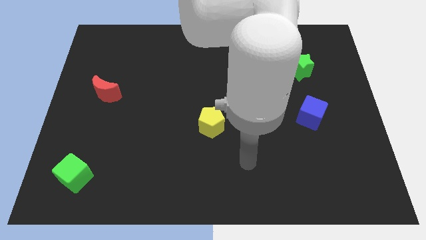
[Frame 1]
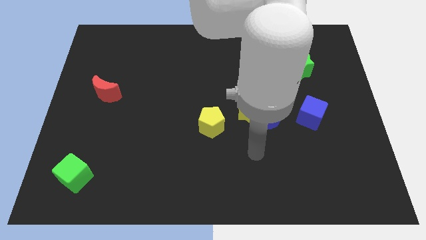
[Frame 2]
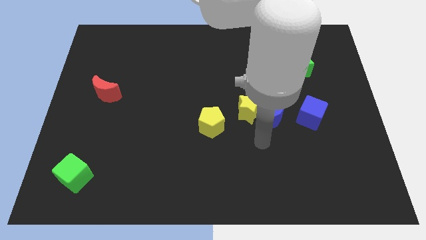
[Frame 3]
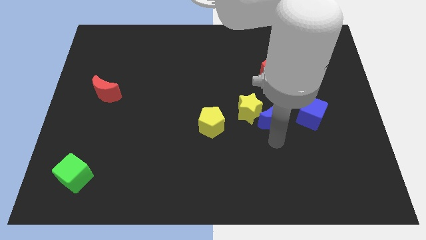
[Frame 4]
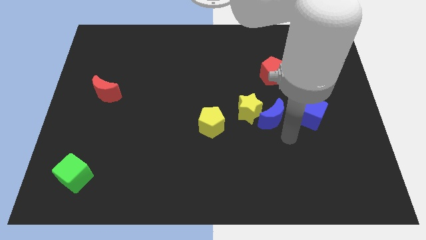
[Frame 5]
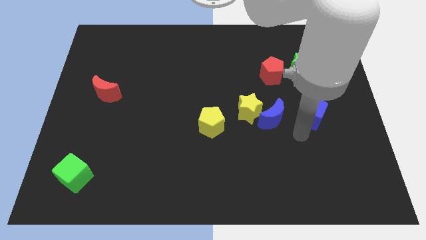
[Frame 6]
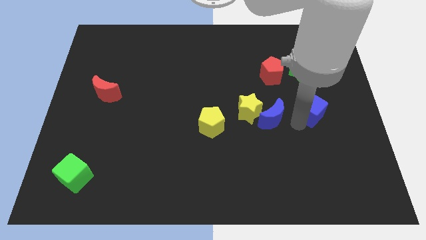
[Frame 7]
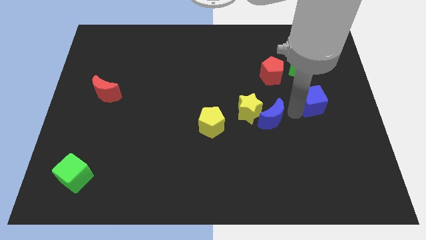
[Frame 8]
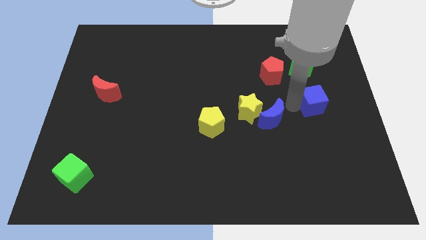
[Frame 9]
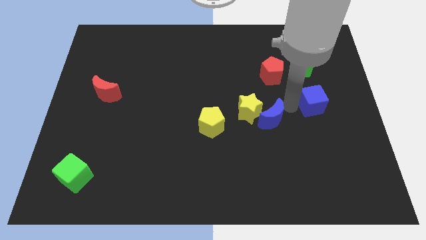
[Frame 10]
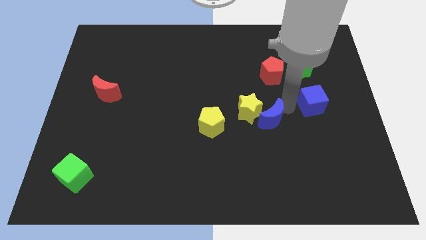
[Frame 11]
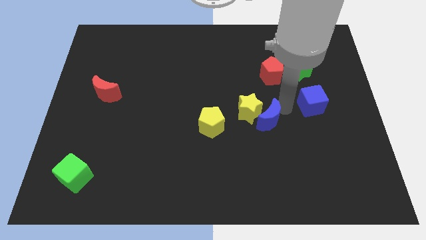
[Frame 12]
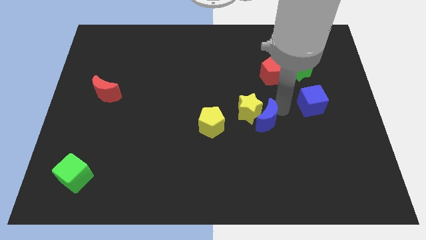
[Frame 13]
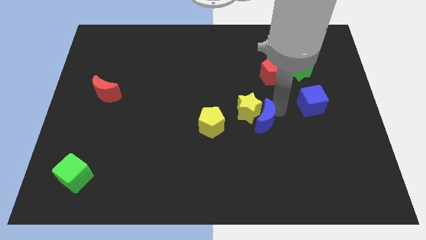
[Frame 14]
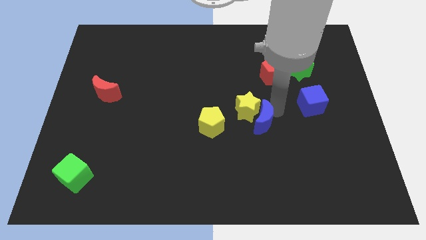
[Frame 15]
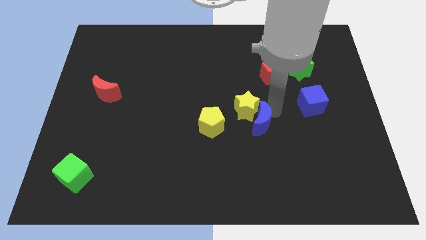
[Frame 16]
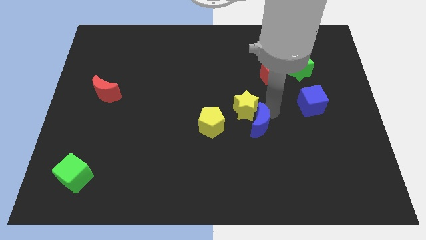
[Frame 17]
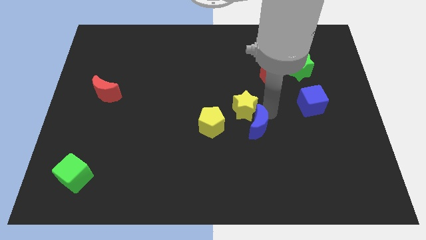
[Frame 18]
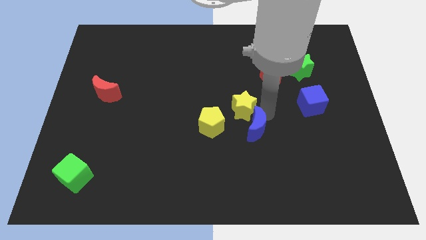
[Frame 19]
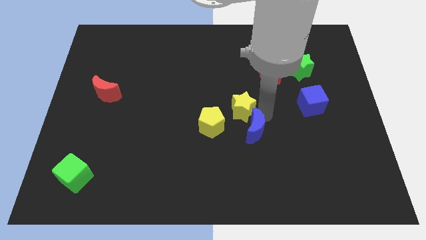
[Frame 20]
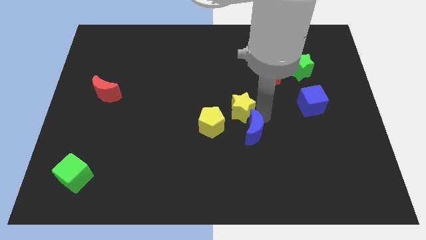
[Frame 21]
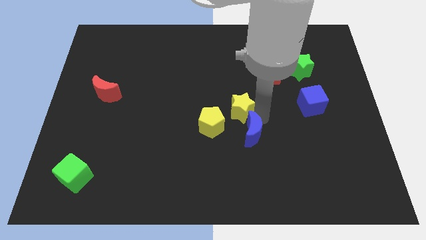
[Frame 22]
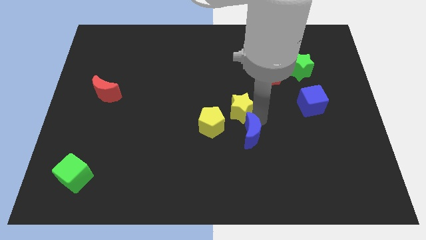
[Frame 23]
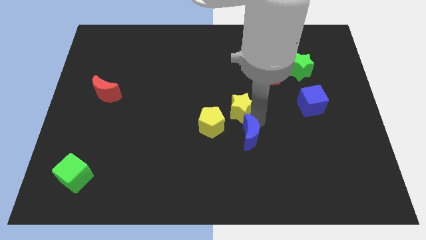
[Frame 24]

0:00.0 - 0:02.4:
separate the blue moon from the yellow star and blue cube

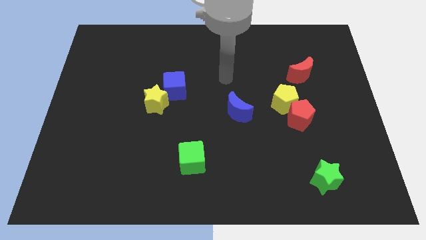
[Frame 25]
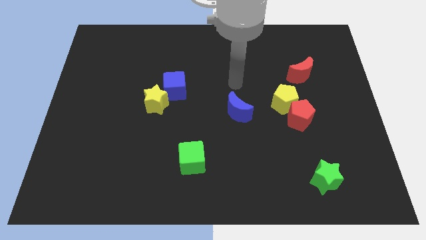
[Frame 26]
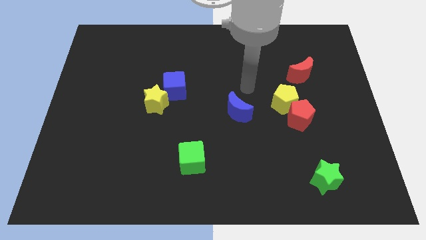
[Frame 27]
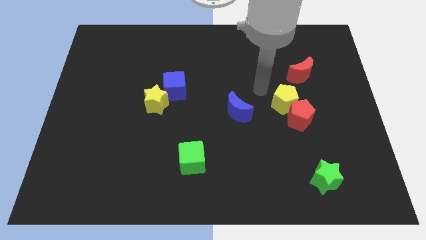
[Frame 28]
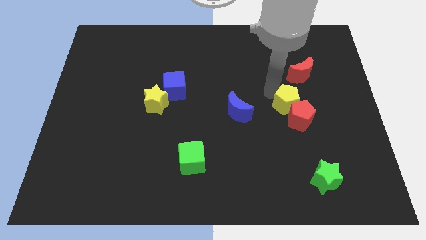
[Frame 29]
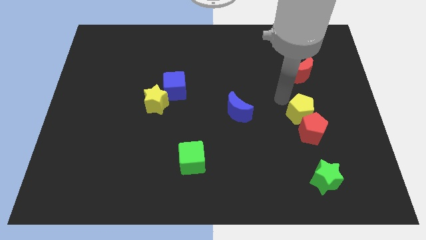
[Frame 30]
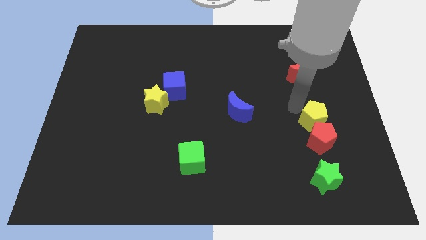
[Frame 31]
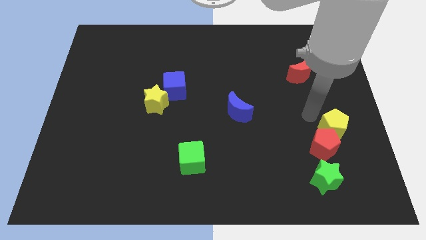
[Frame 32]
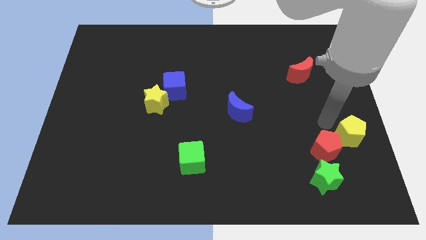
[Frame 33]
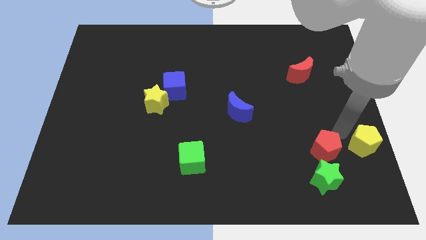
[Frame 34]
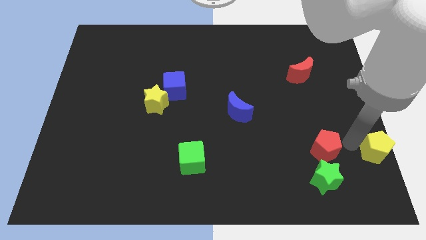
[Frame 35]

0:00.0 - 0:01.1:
move the red pentagon away from the yellow pentagon

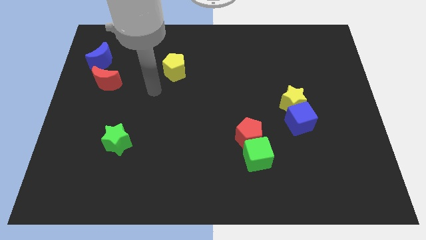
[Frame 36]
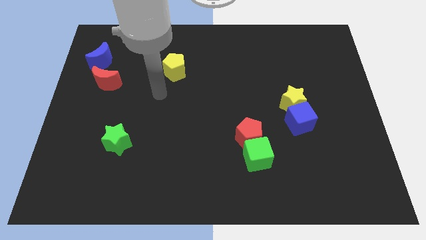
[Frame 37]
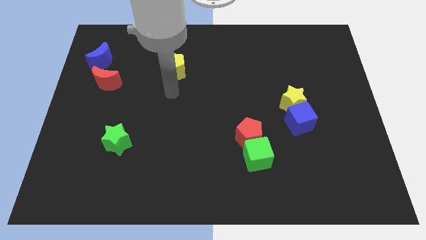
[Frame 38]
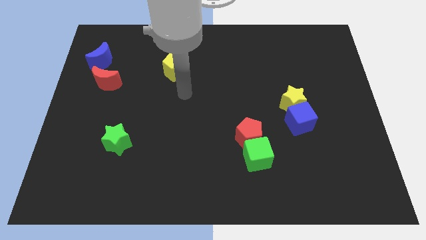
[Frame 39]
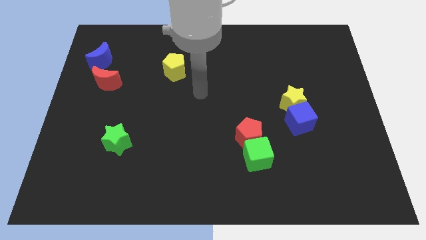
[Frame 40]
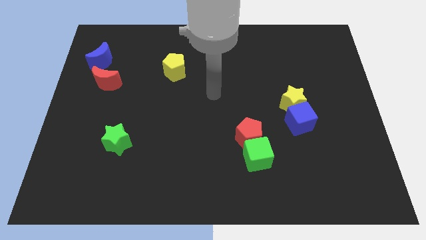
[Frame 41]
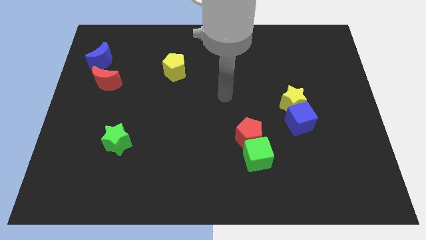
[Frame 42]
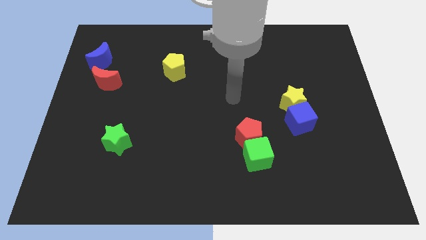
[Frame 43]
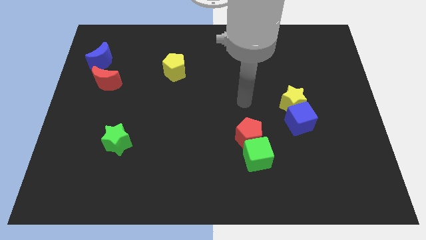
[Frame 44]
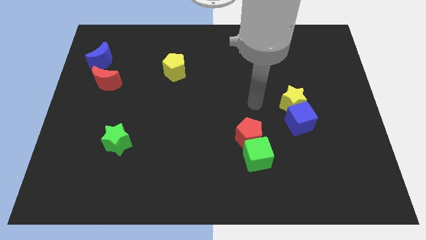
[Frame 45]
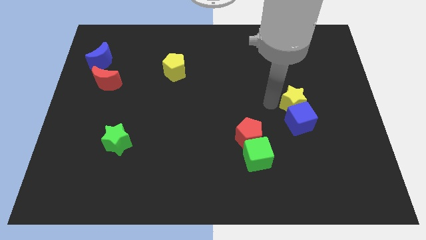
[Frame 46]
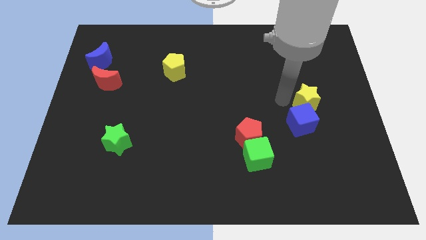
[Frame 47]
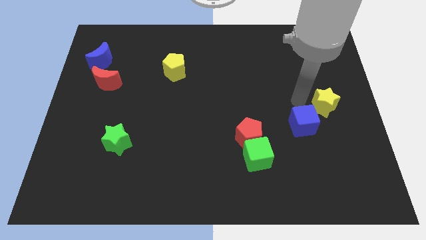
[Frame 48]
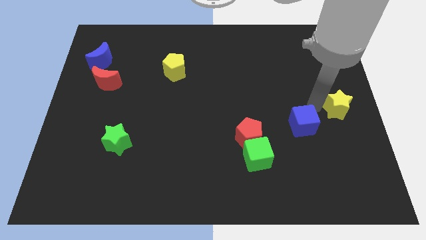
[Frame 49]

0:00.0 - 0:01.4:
separate the blue cube from the yellow star

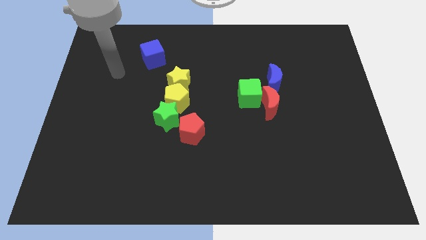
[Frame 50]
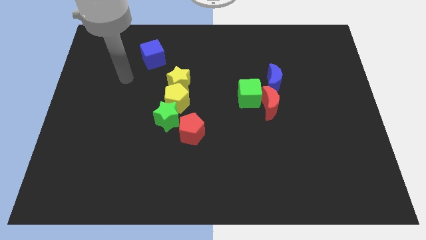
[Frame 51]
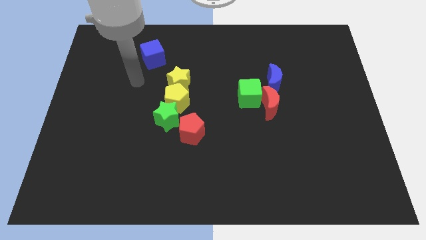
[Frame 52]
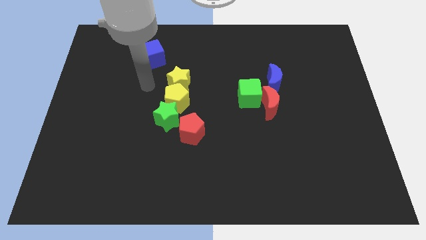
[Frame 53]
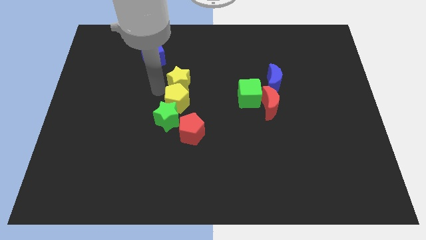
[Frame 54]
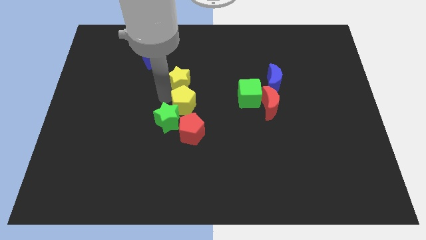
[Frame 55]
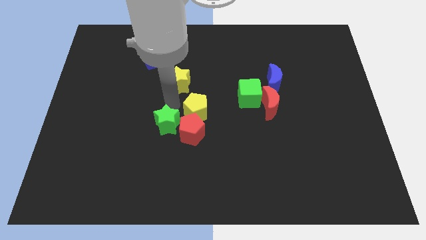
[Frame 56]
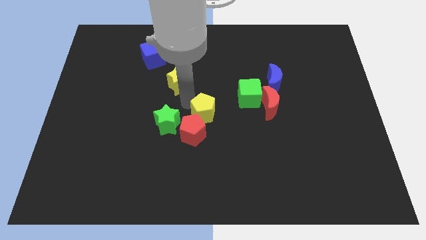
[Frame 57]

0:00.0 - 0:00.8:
move the yellow star away from the yellow pentagon

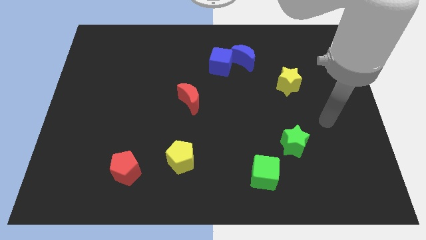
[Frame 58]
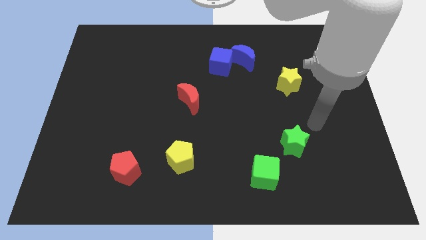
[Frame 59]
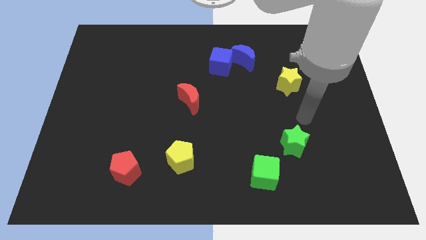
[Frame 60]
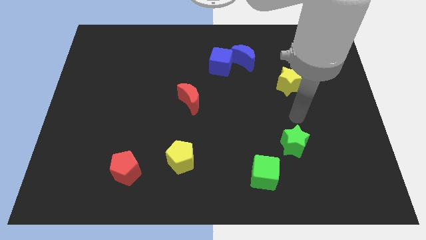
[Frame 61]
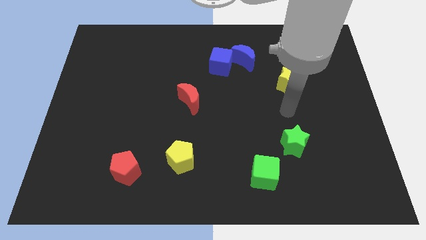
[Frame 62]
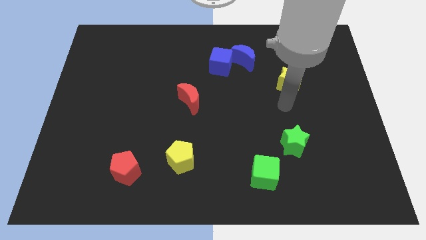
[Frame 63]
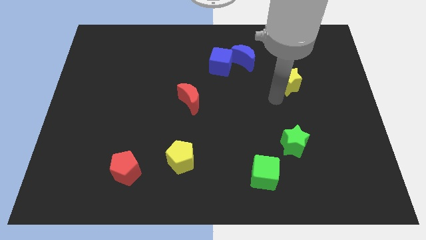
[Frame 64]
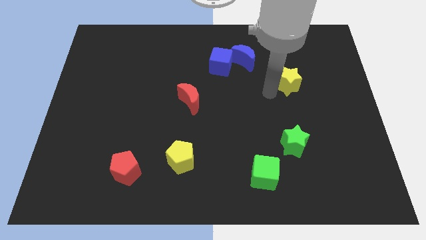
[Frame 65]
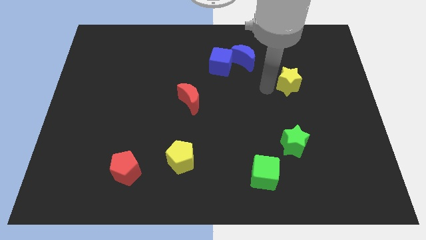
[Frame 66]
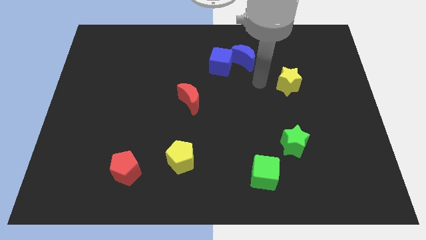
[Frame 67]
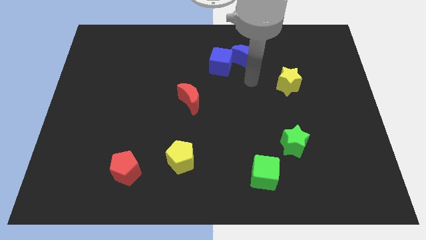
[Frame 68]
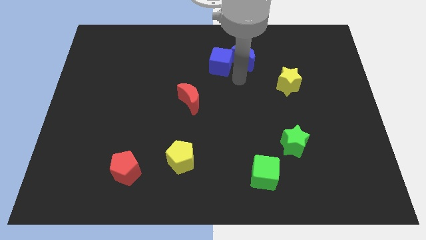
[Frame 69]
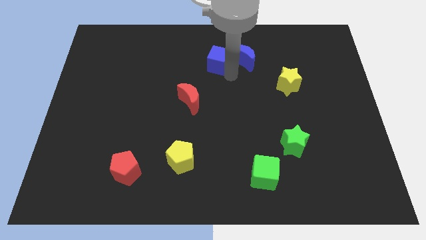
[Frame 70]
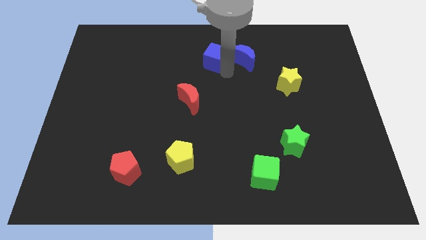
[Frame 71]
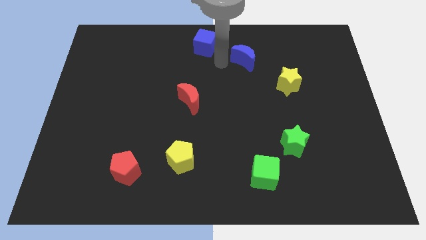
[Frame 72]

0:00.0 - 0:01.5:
pull the blue moon apart from the blue cube

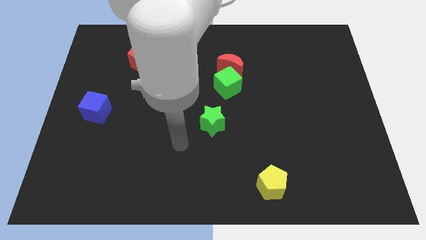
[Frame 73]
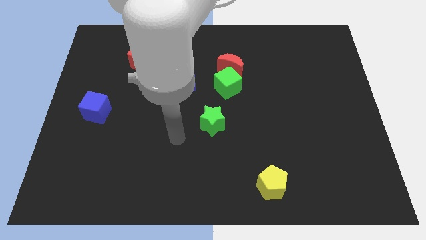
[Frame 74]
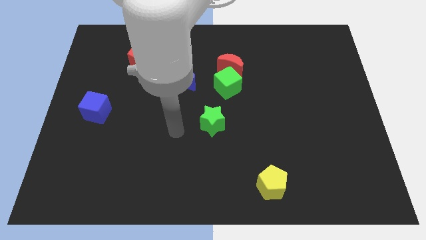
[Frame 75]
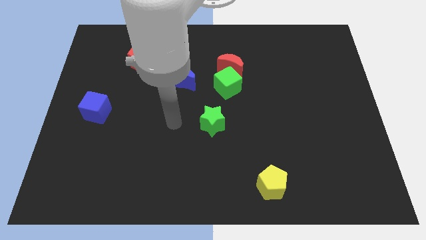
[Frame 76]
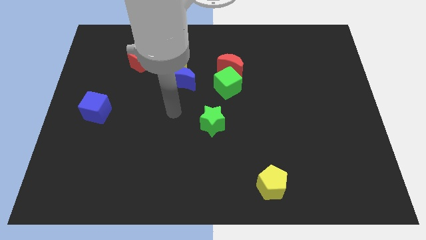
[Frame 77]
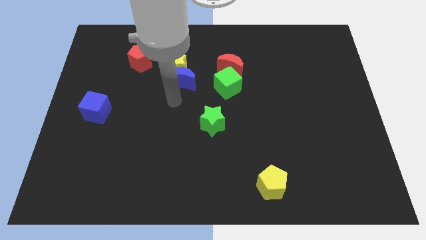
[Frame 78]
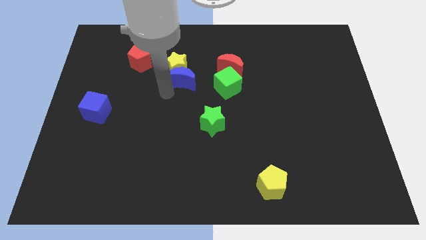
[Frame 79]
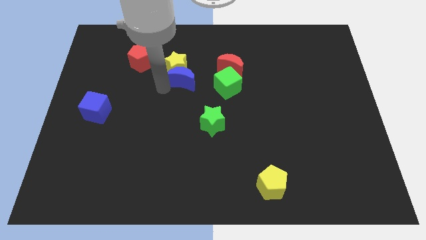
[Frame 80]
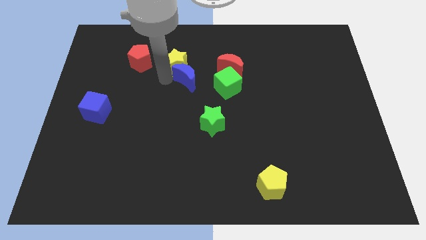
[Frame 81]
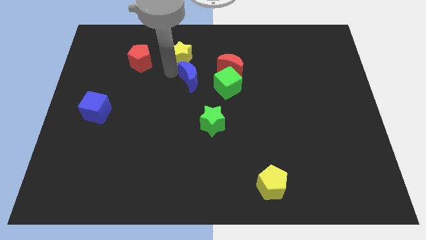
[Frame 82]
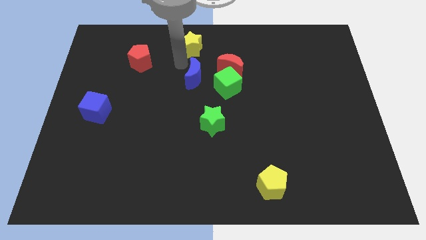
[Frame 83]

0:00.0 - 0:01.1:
separate the blue moon from the yellow star

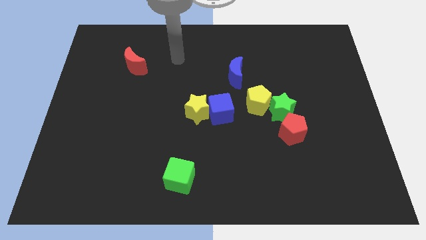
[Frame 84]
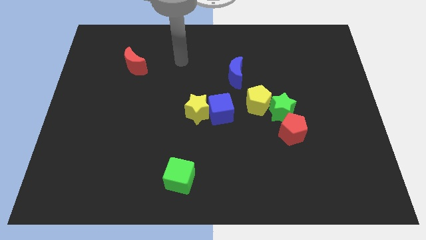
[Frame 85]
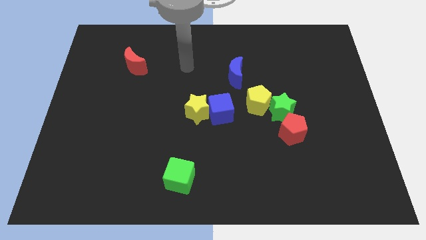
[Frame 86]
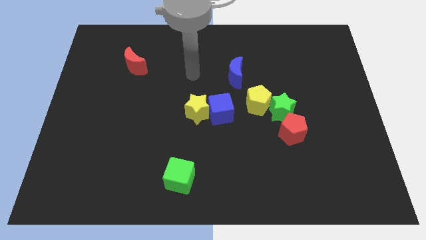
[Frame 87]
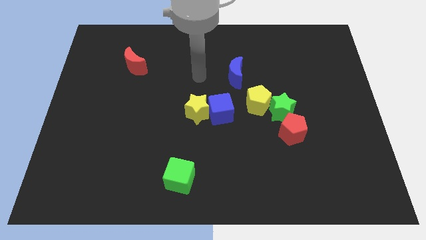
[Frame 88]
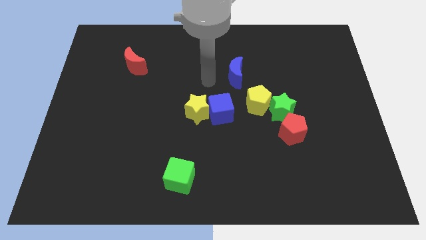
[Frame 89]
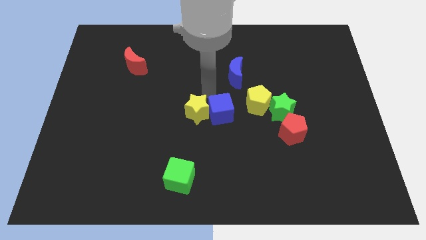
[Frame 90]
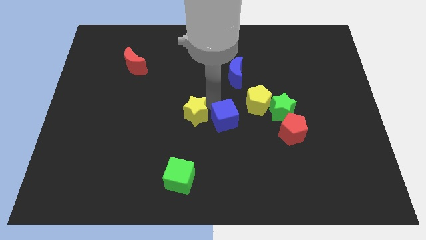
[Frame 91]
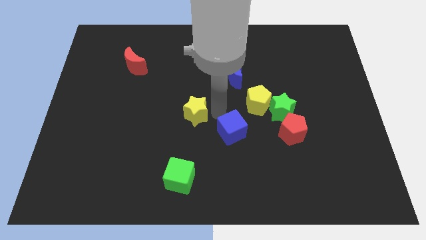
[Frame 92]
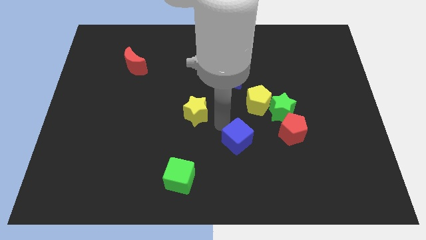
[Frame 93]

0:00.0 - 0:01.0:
pull the yellow star apart from the blue cube

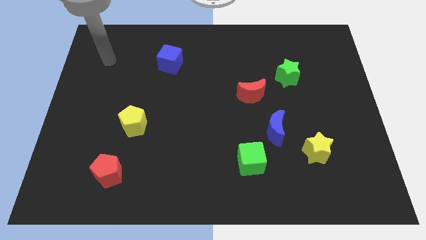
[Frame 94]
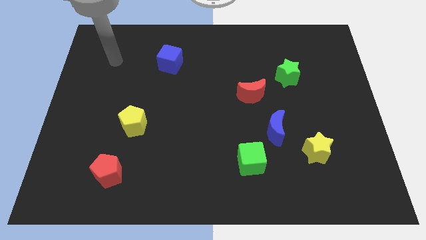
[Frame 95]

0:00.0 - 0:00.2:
move the green cube away from the blue moon
